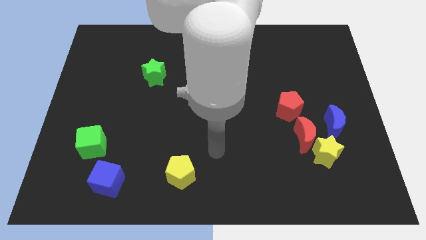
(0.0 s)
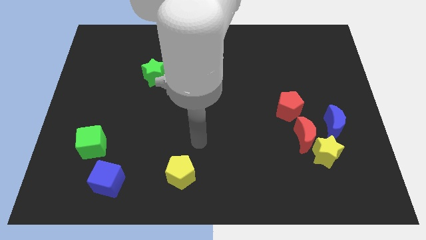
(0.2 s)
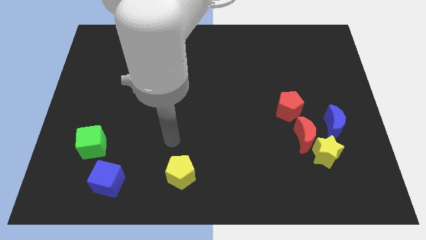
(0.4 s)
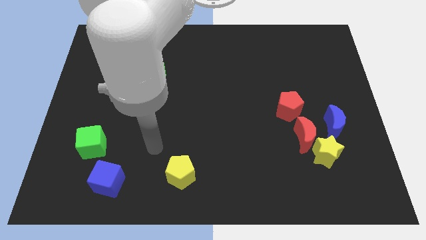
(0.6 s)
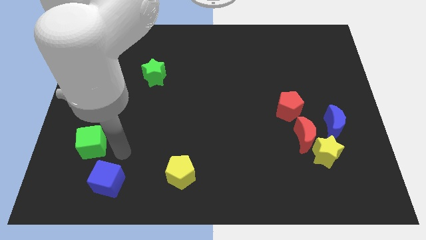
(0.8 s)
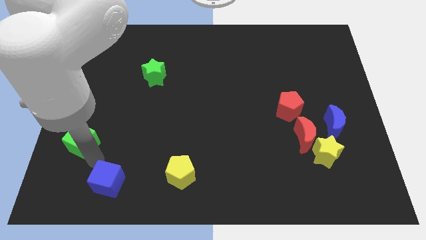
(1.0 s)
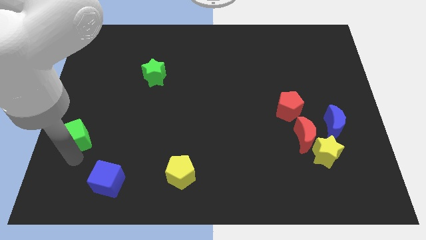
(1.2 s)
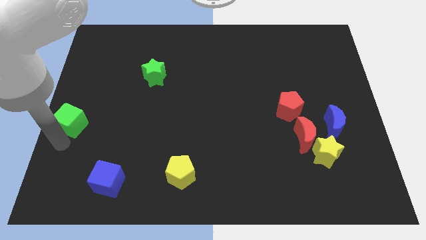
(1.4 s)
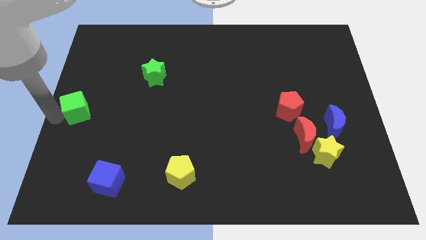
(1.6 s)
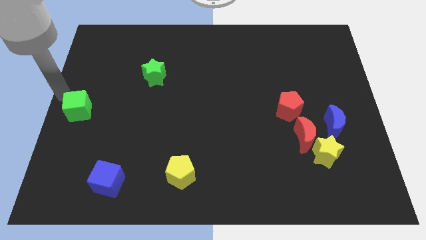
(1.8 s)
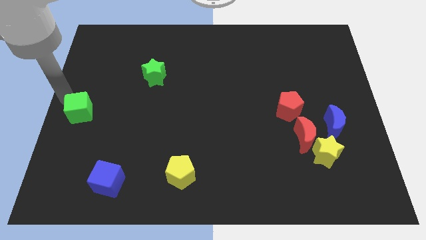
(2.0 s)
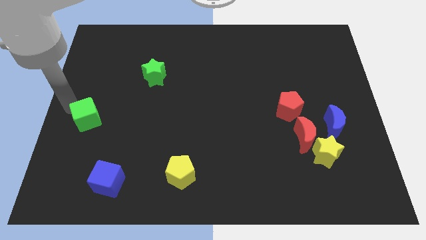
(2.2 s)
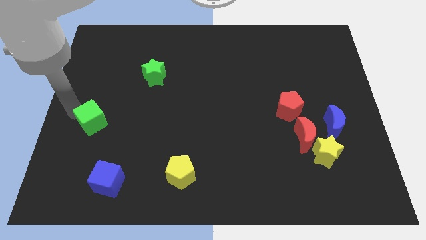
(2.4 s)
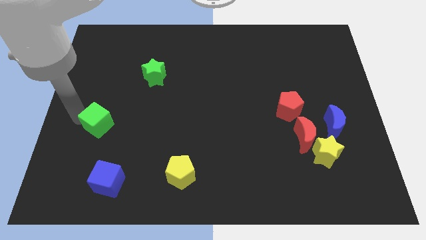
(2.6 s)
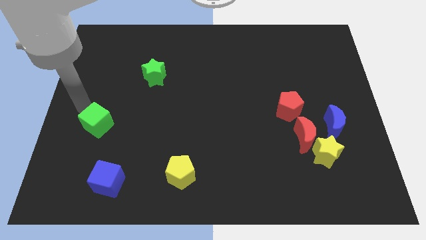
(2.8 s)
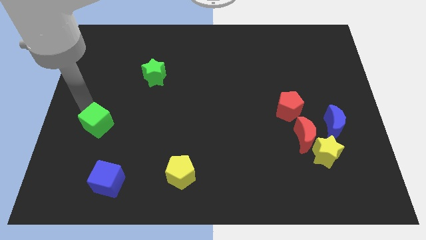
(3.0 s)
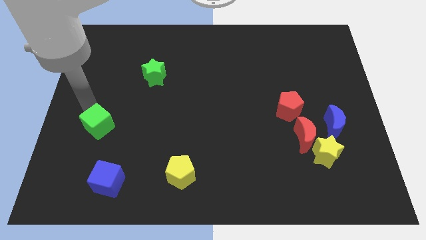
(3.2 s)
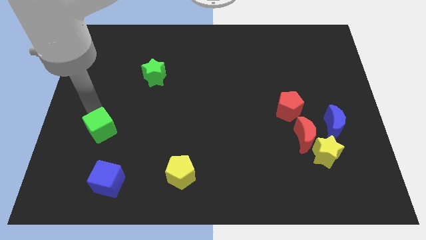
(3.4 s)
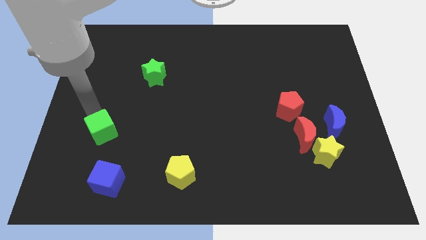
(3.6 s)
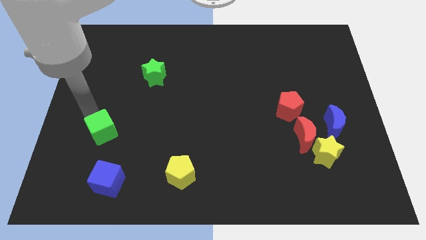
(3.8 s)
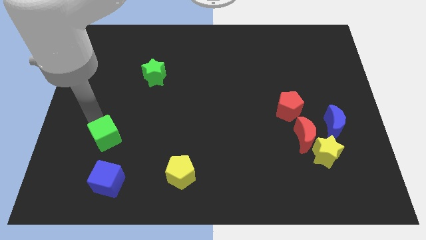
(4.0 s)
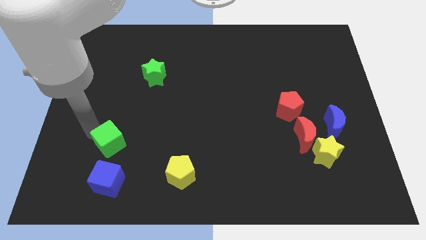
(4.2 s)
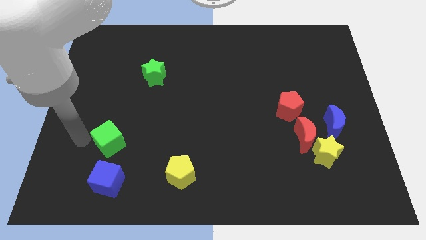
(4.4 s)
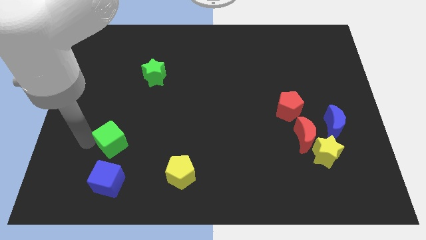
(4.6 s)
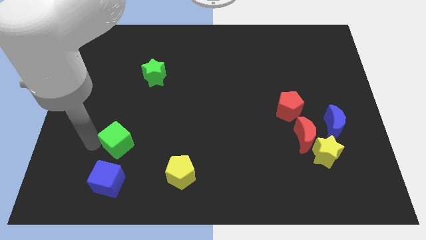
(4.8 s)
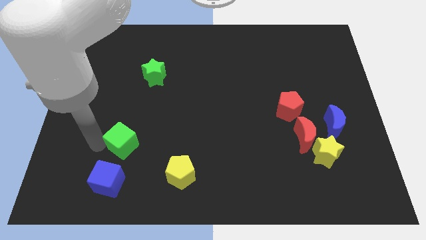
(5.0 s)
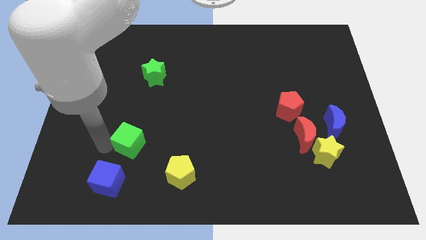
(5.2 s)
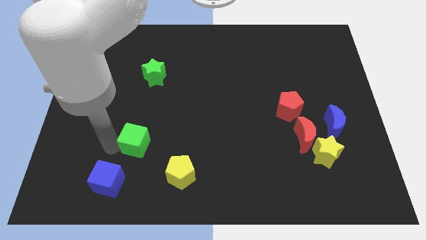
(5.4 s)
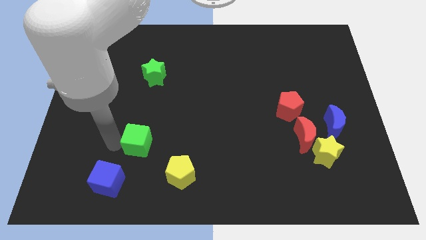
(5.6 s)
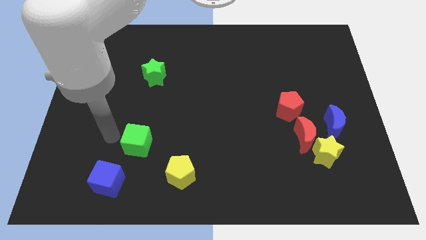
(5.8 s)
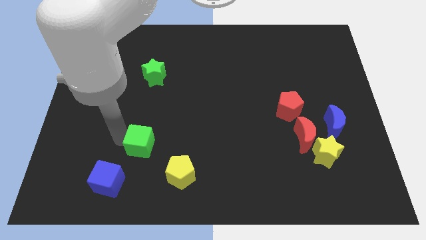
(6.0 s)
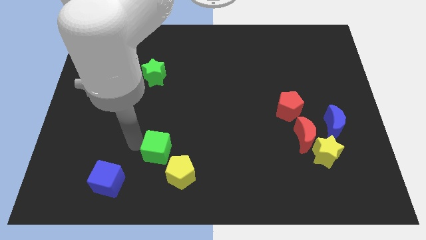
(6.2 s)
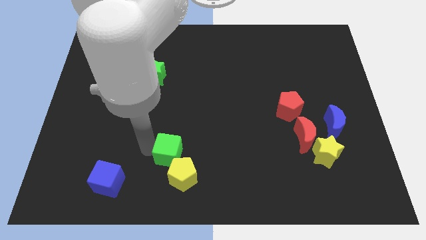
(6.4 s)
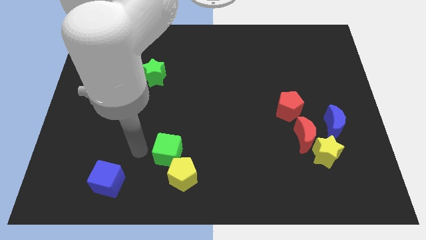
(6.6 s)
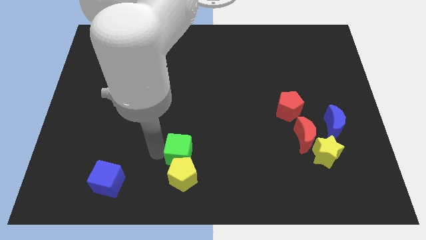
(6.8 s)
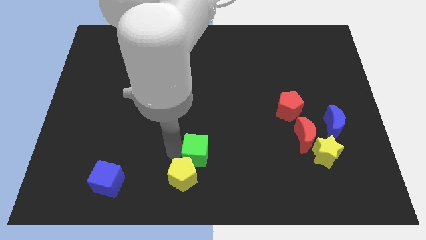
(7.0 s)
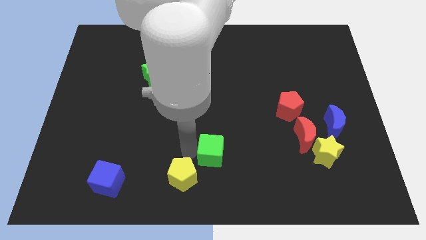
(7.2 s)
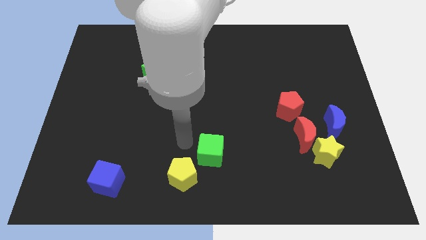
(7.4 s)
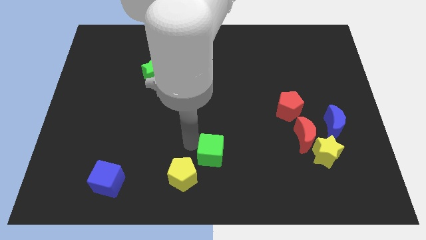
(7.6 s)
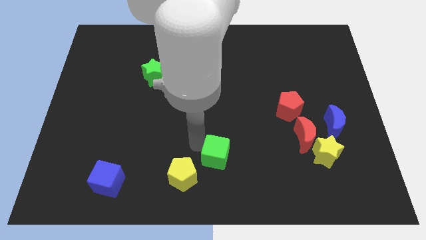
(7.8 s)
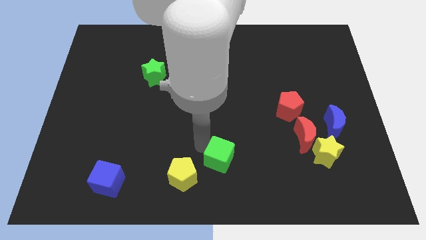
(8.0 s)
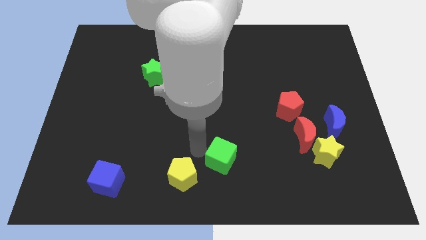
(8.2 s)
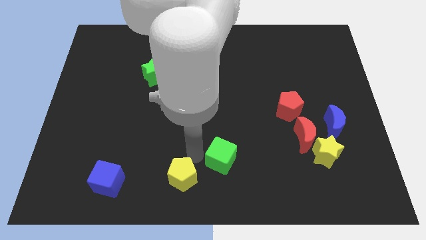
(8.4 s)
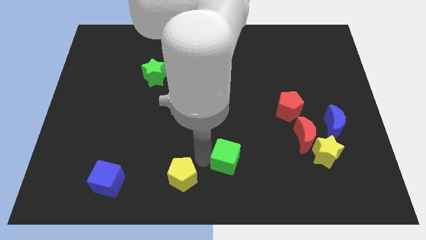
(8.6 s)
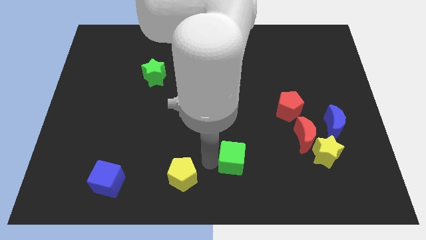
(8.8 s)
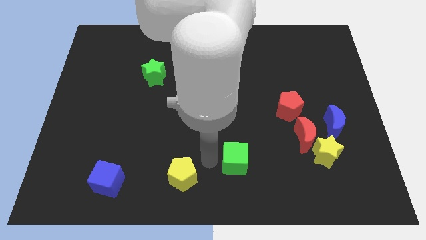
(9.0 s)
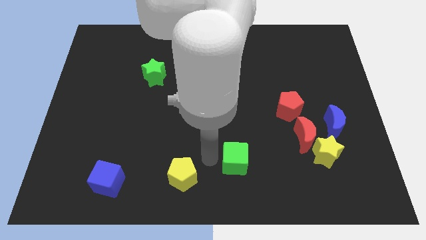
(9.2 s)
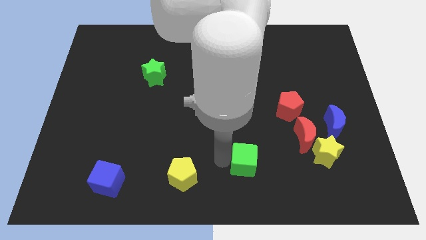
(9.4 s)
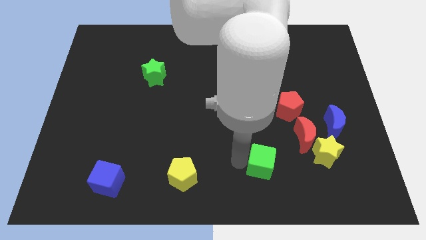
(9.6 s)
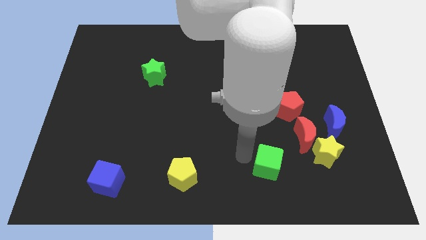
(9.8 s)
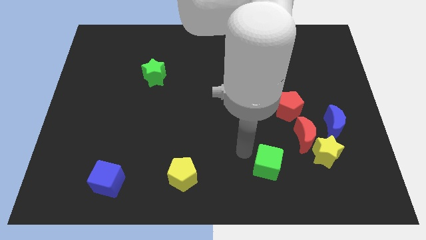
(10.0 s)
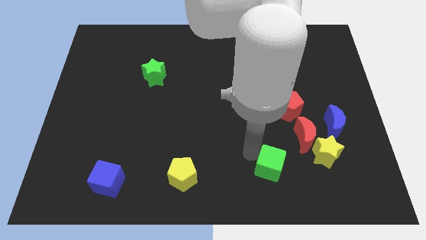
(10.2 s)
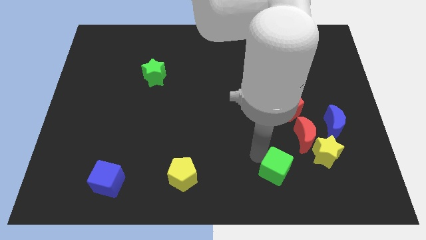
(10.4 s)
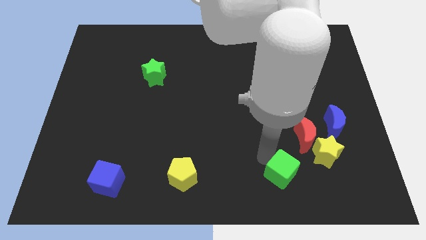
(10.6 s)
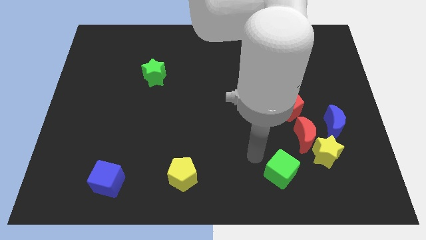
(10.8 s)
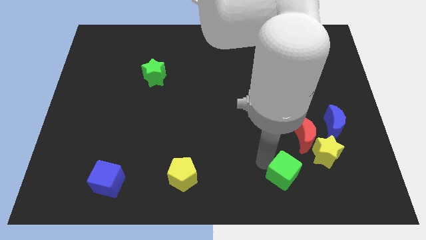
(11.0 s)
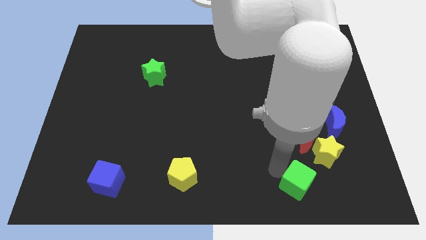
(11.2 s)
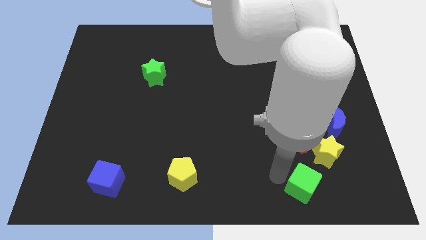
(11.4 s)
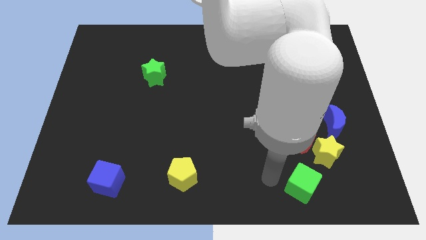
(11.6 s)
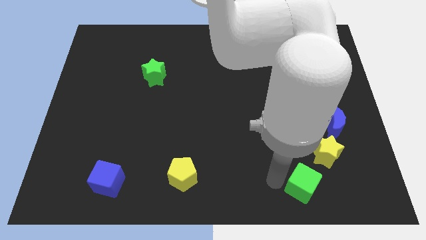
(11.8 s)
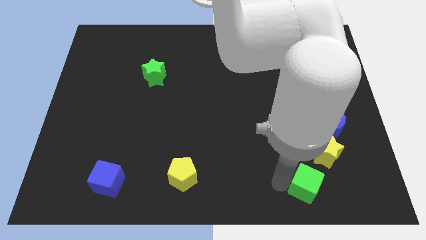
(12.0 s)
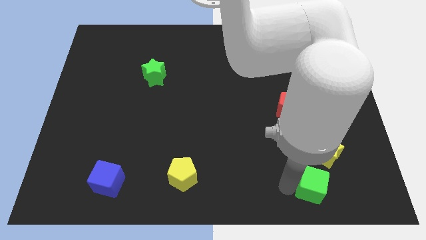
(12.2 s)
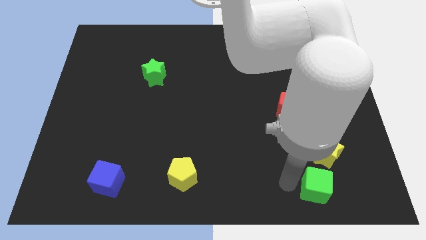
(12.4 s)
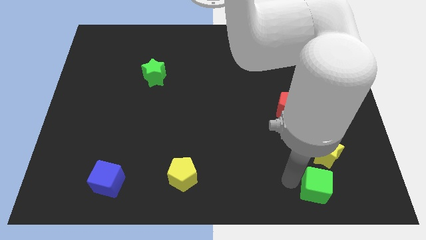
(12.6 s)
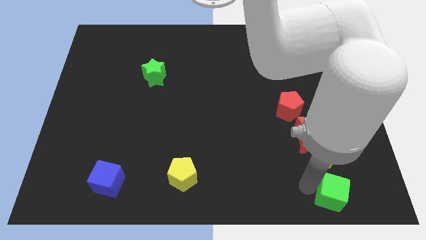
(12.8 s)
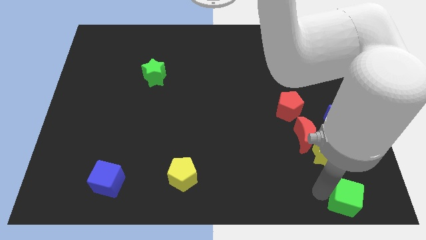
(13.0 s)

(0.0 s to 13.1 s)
move the green cube to the bottom right corner
